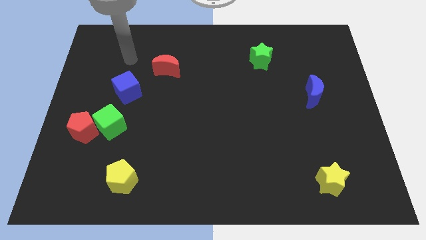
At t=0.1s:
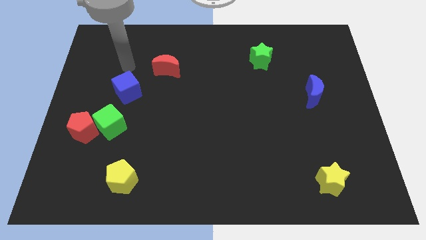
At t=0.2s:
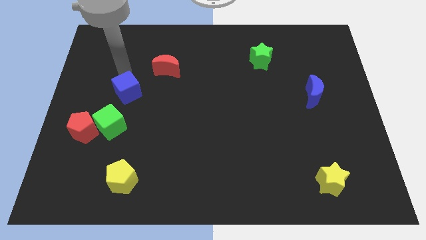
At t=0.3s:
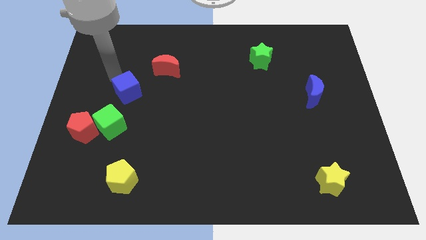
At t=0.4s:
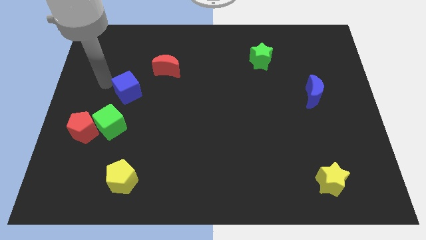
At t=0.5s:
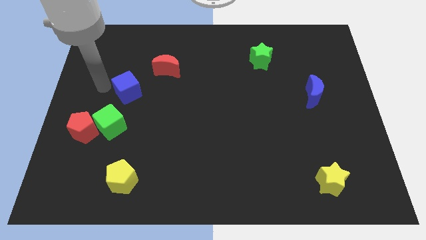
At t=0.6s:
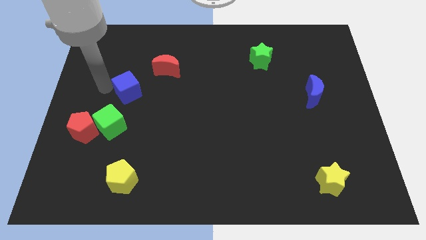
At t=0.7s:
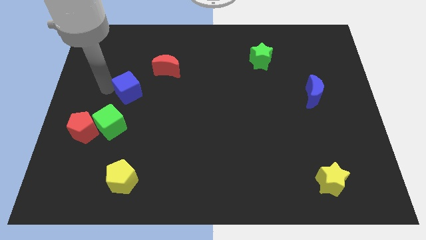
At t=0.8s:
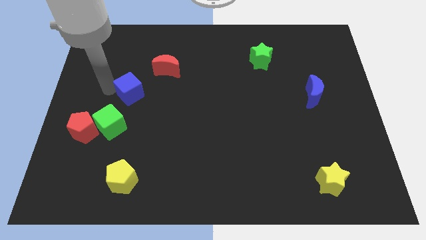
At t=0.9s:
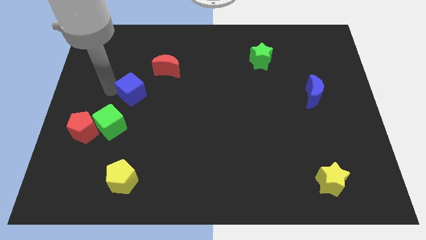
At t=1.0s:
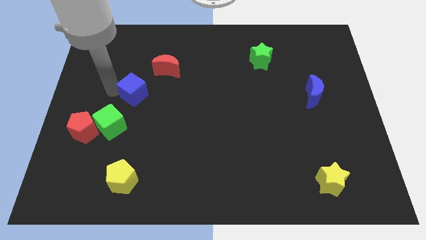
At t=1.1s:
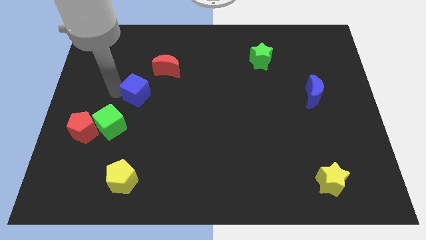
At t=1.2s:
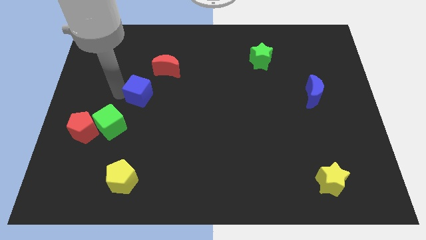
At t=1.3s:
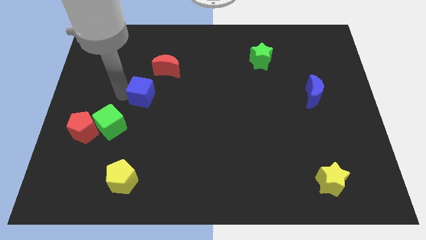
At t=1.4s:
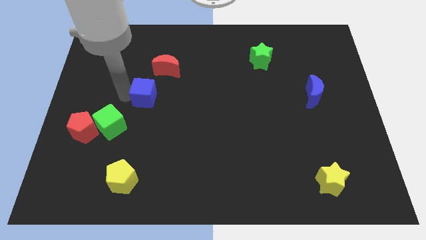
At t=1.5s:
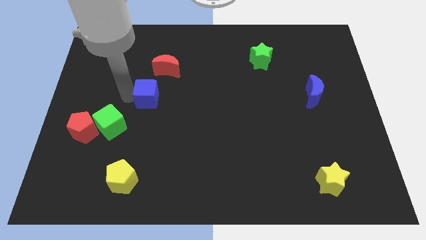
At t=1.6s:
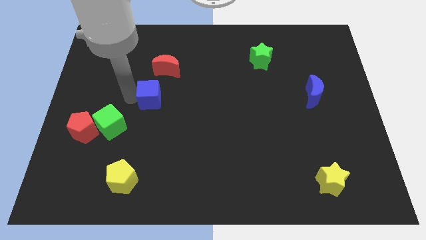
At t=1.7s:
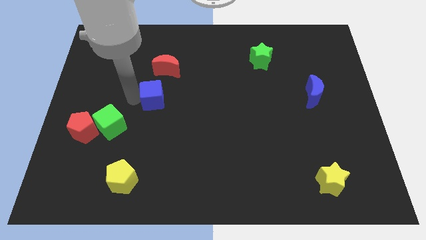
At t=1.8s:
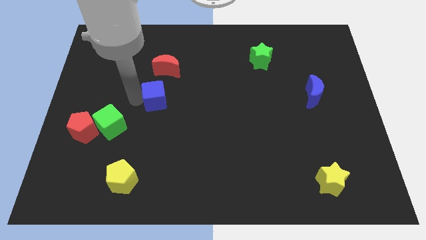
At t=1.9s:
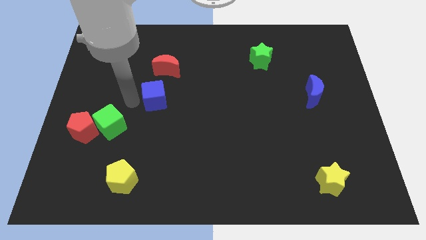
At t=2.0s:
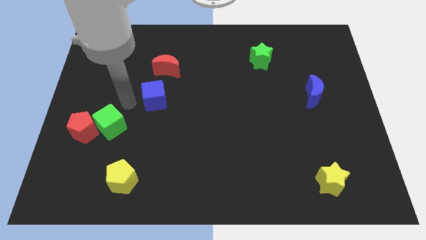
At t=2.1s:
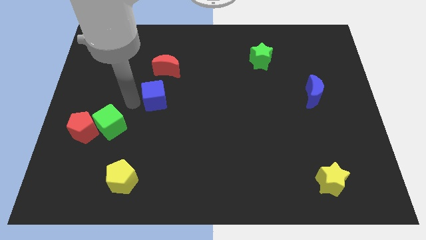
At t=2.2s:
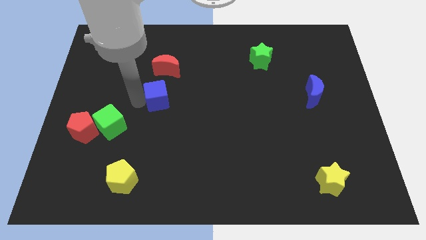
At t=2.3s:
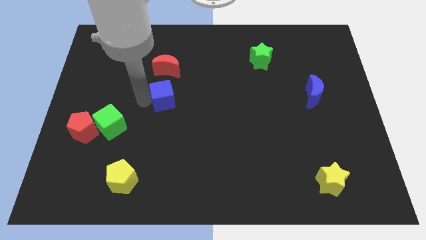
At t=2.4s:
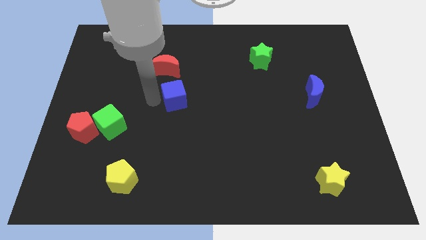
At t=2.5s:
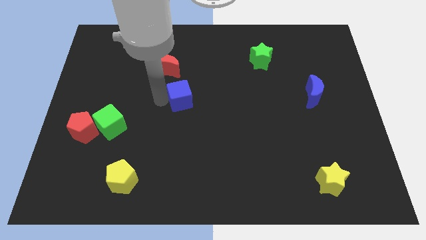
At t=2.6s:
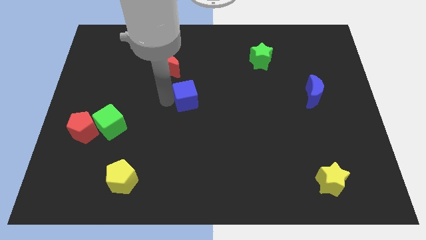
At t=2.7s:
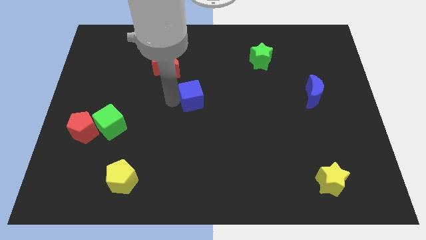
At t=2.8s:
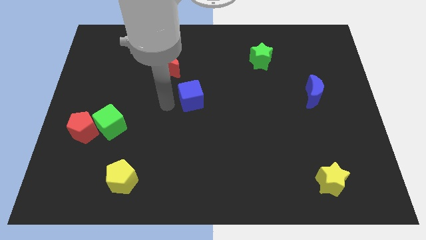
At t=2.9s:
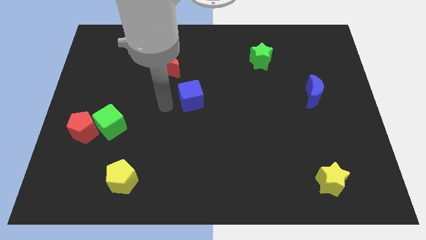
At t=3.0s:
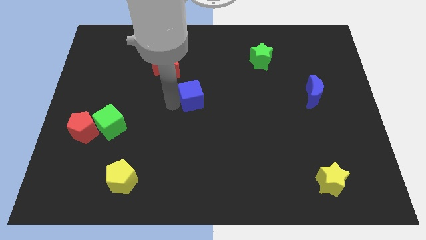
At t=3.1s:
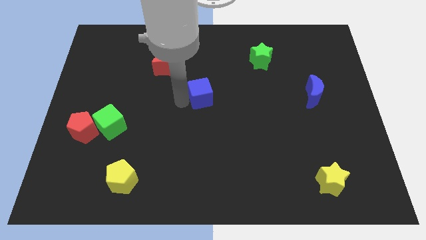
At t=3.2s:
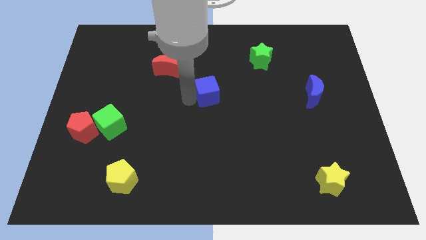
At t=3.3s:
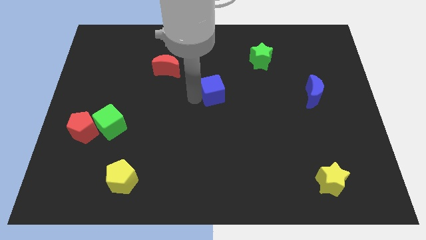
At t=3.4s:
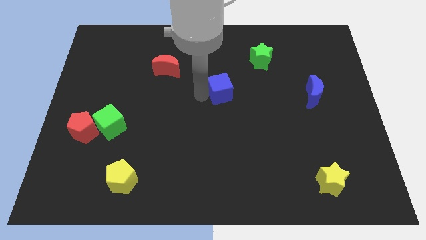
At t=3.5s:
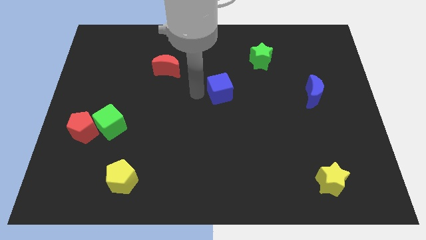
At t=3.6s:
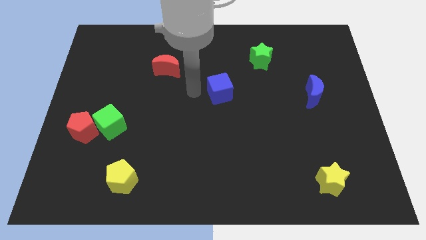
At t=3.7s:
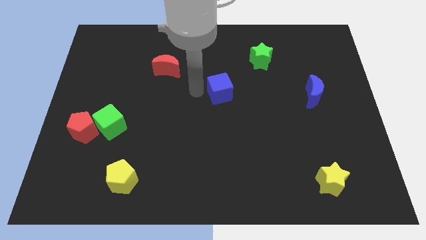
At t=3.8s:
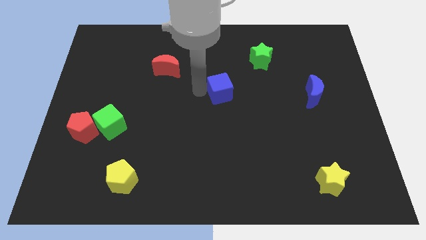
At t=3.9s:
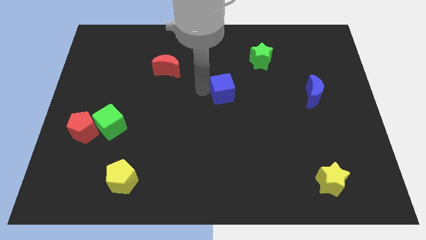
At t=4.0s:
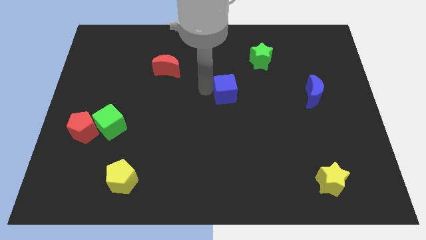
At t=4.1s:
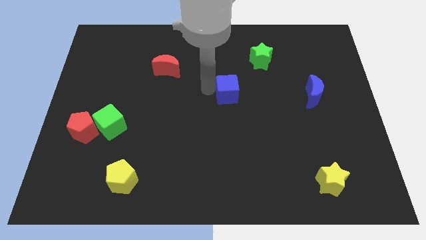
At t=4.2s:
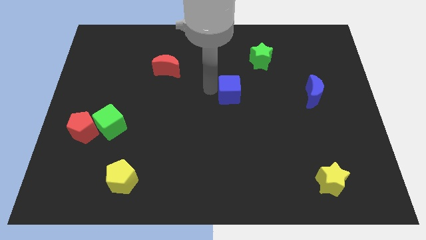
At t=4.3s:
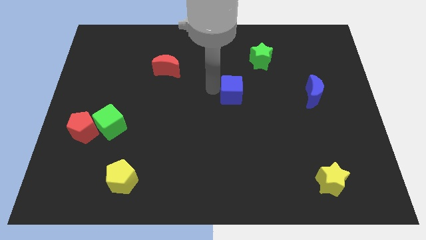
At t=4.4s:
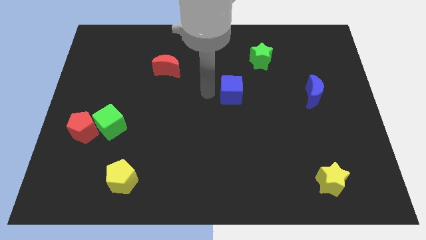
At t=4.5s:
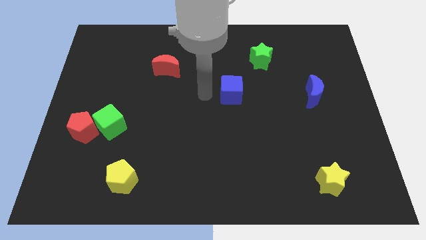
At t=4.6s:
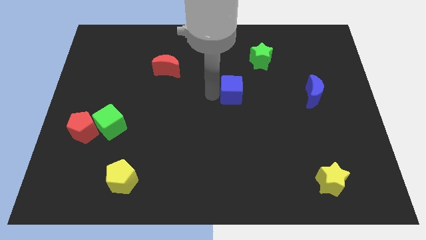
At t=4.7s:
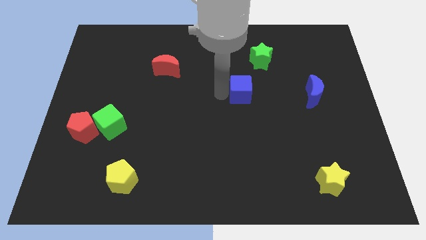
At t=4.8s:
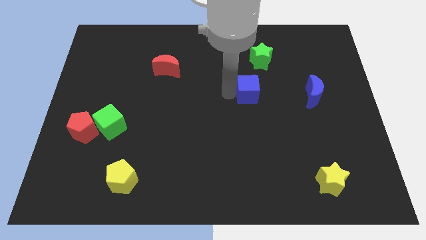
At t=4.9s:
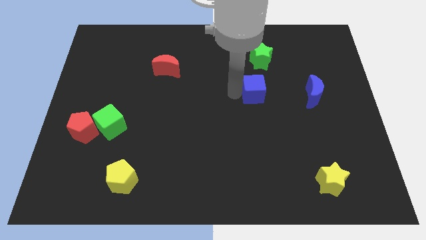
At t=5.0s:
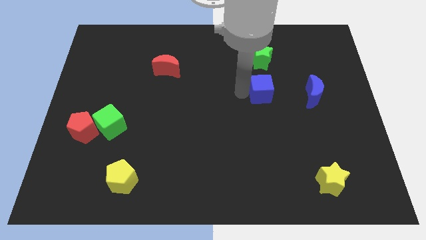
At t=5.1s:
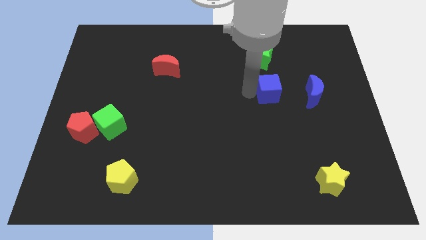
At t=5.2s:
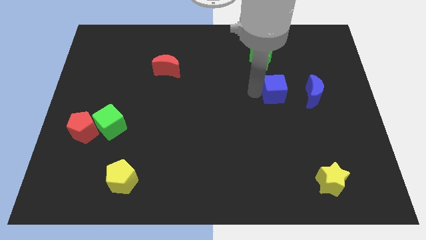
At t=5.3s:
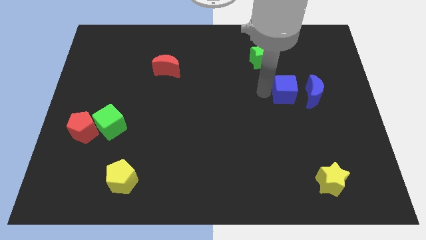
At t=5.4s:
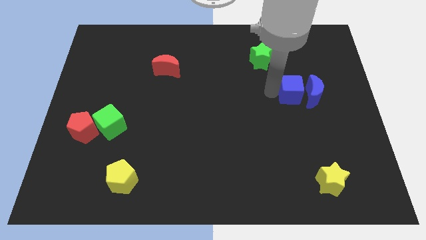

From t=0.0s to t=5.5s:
put the blue cube close to the blue moon

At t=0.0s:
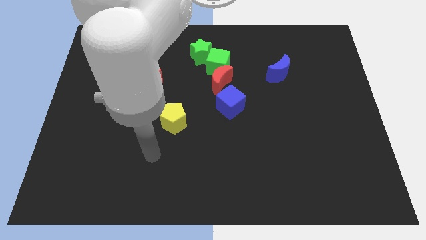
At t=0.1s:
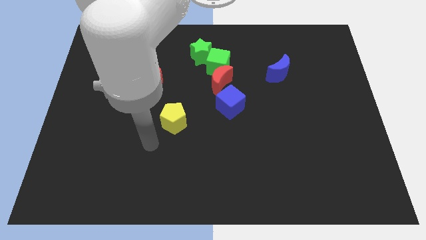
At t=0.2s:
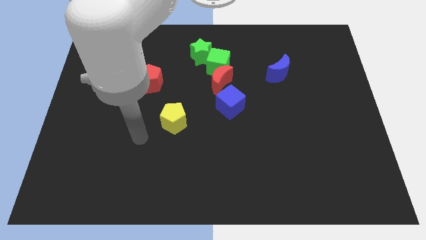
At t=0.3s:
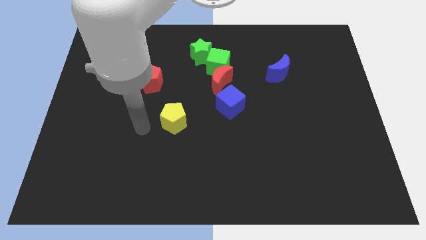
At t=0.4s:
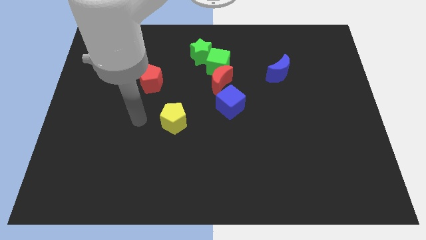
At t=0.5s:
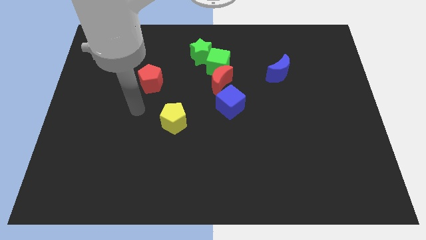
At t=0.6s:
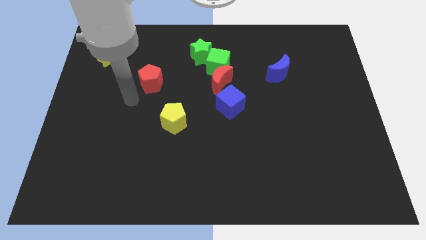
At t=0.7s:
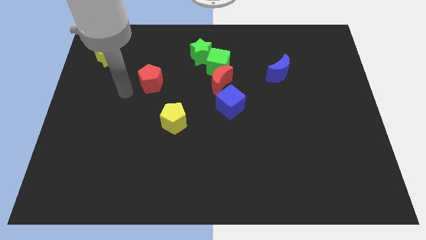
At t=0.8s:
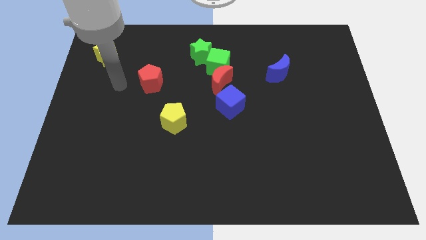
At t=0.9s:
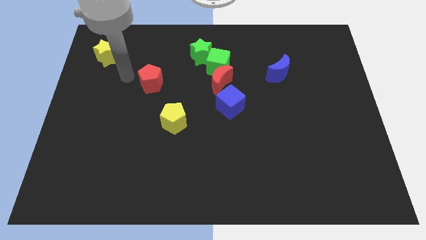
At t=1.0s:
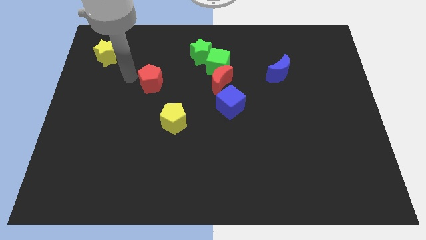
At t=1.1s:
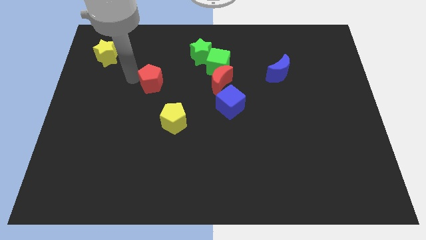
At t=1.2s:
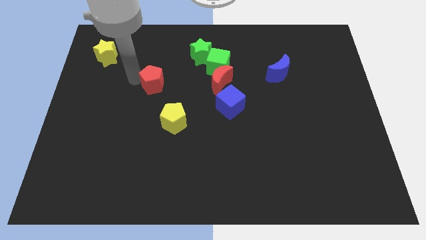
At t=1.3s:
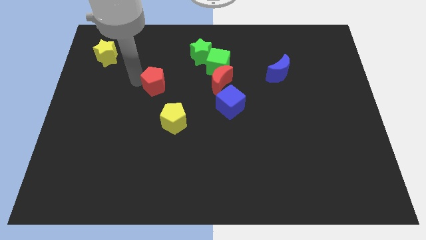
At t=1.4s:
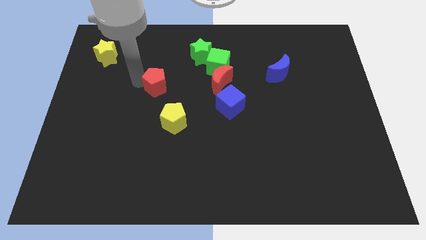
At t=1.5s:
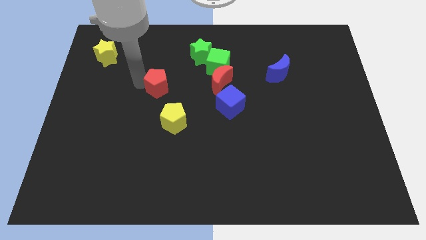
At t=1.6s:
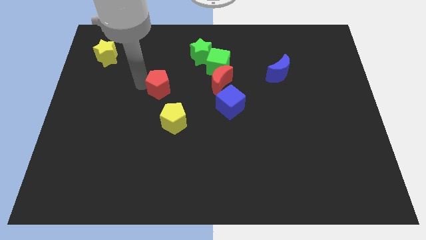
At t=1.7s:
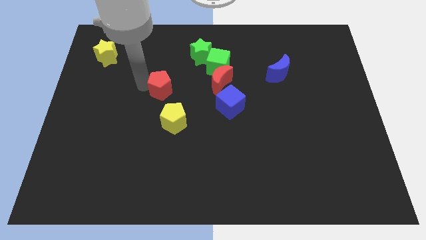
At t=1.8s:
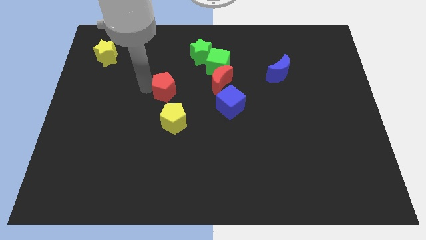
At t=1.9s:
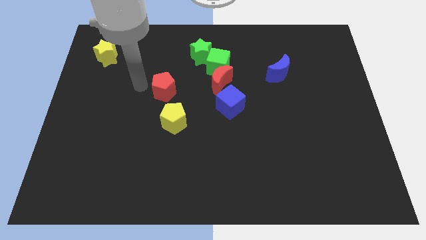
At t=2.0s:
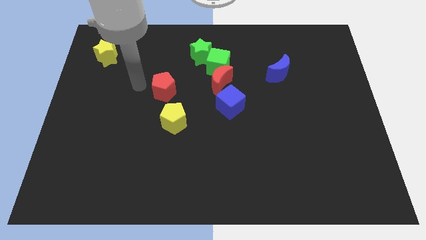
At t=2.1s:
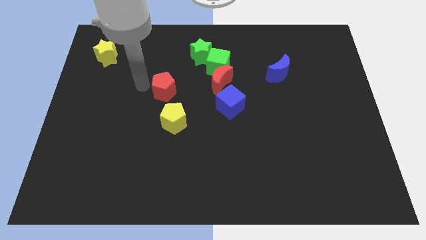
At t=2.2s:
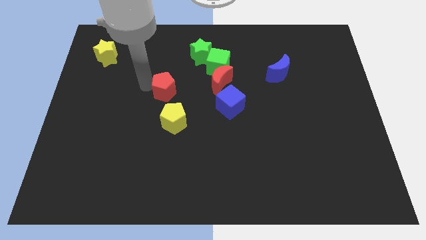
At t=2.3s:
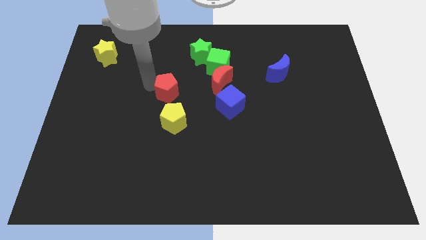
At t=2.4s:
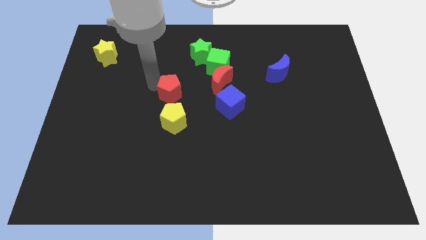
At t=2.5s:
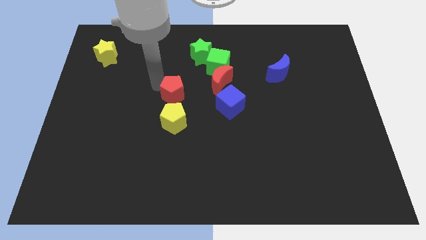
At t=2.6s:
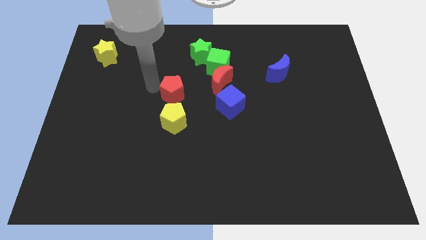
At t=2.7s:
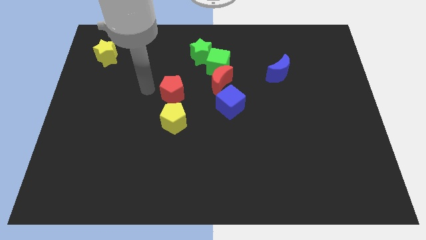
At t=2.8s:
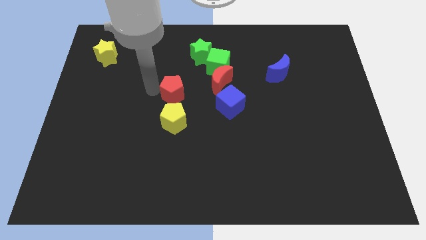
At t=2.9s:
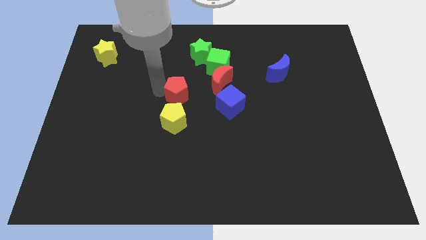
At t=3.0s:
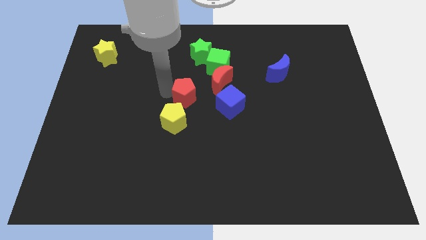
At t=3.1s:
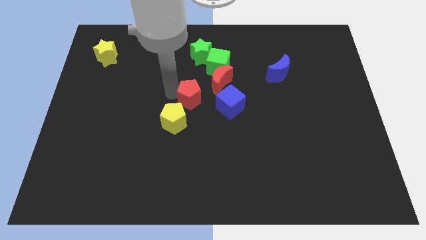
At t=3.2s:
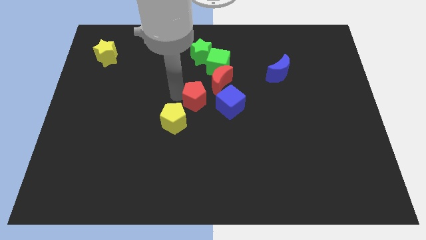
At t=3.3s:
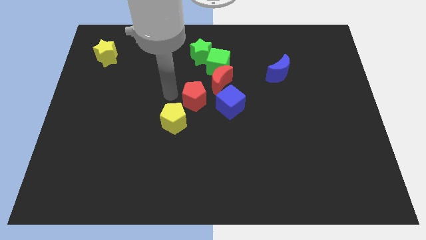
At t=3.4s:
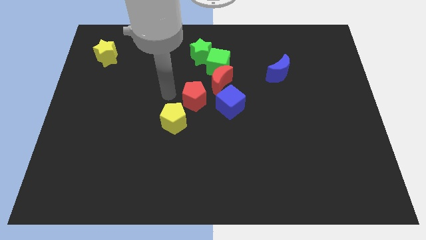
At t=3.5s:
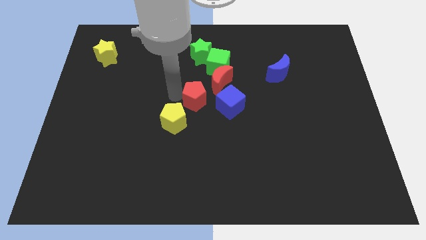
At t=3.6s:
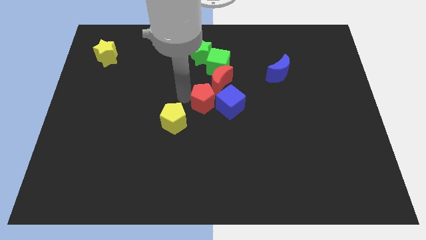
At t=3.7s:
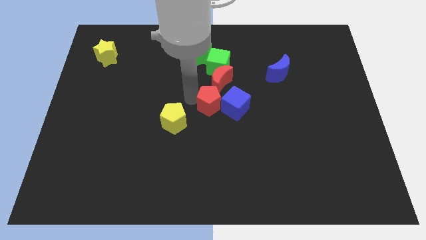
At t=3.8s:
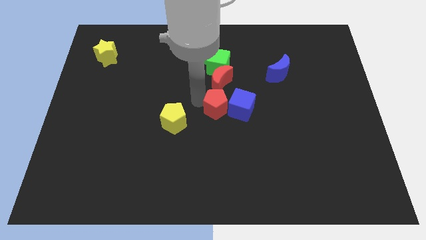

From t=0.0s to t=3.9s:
slide the red pentagon to the blue cube
